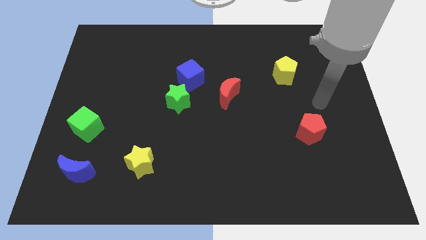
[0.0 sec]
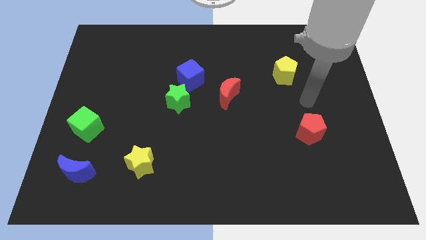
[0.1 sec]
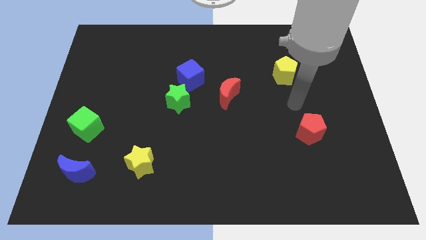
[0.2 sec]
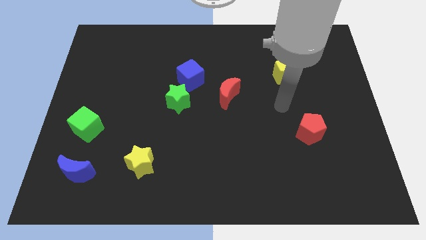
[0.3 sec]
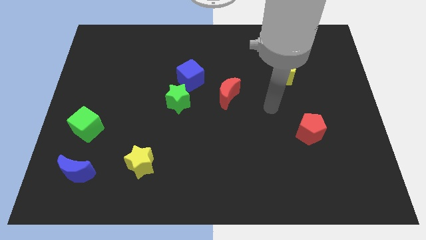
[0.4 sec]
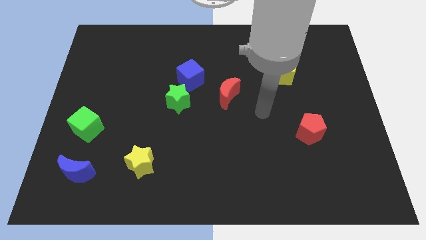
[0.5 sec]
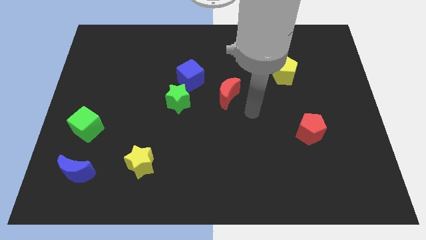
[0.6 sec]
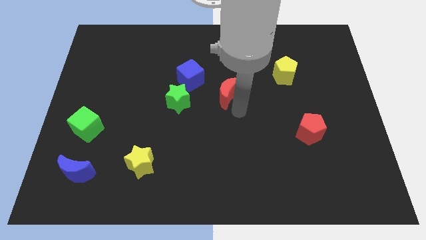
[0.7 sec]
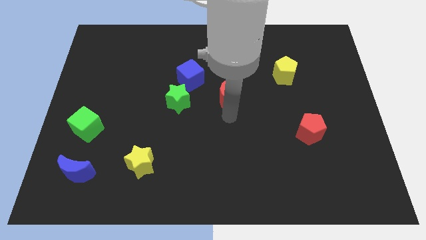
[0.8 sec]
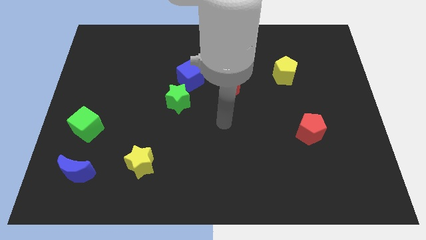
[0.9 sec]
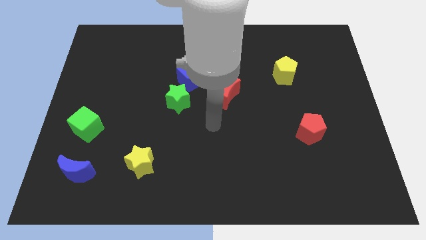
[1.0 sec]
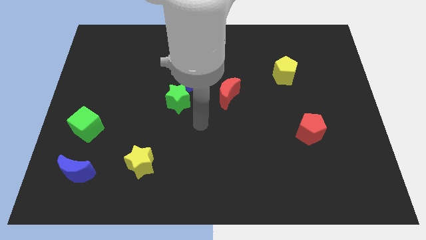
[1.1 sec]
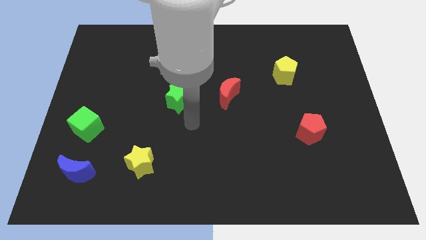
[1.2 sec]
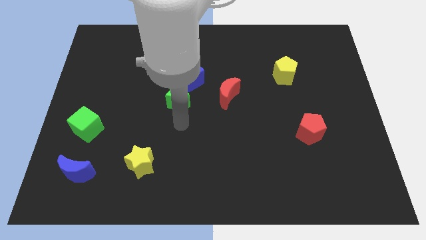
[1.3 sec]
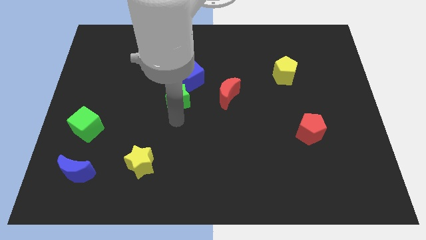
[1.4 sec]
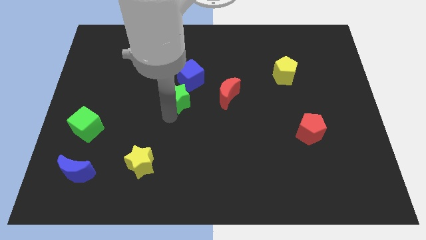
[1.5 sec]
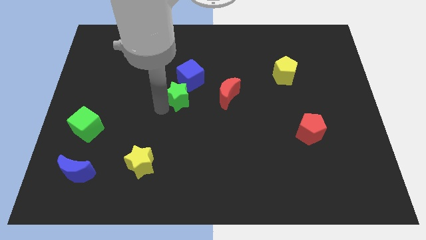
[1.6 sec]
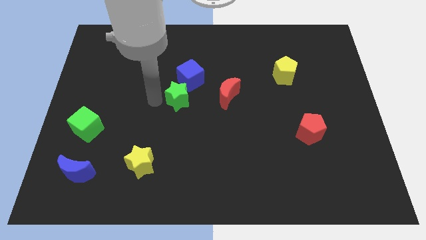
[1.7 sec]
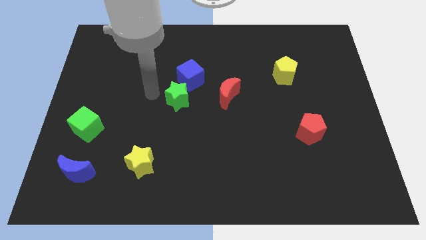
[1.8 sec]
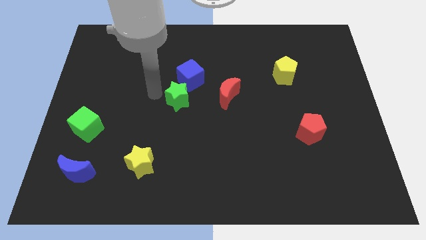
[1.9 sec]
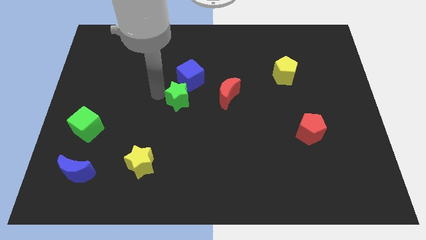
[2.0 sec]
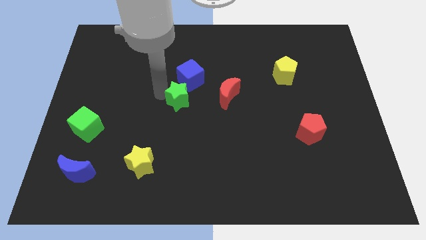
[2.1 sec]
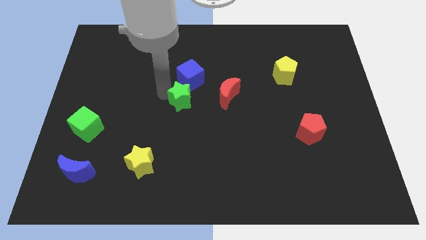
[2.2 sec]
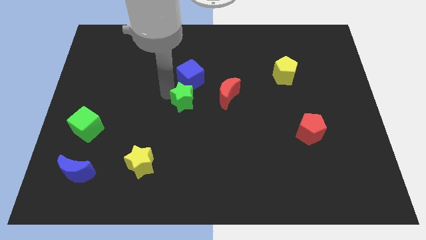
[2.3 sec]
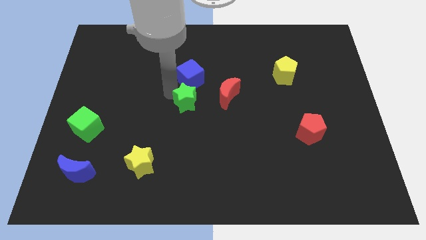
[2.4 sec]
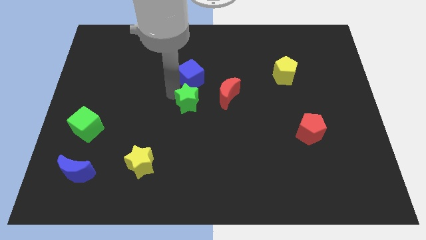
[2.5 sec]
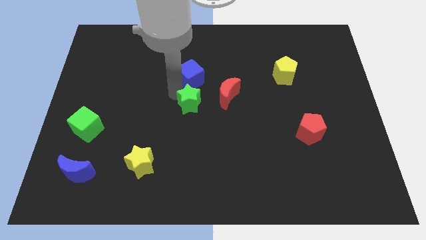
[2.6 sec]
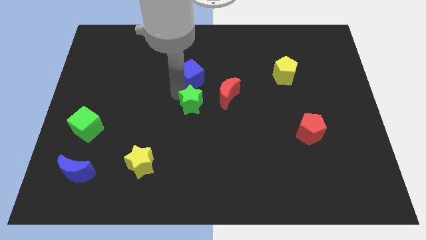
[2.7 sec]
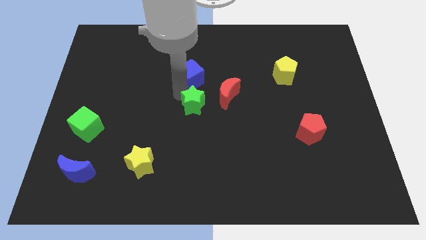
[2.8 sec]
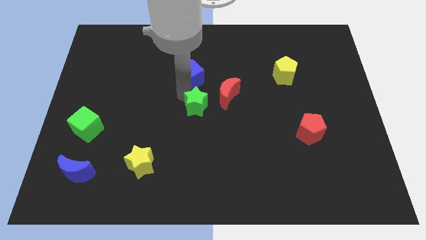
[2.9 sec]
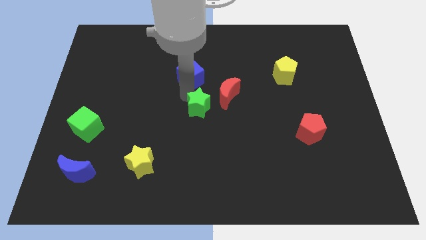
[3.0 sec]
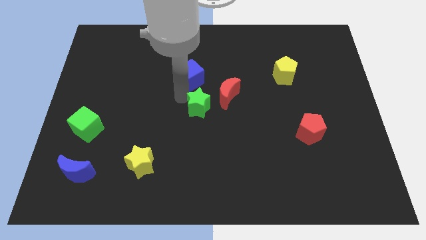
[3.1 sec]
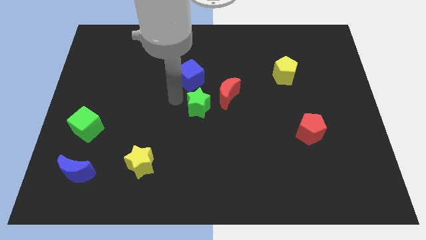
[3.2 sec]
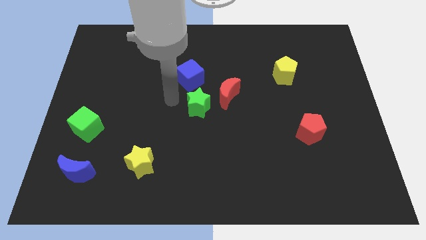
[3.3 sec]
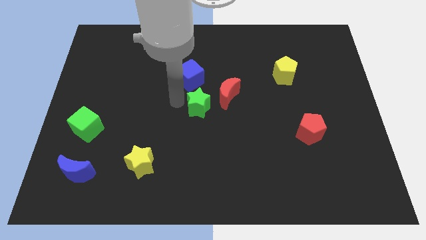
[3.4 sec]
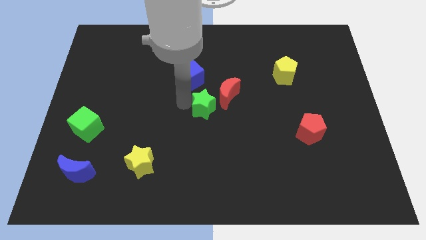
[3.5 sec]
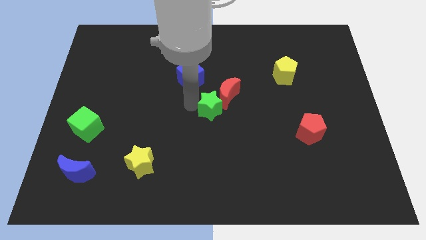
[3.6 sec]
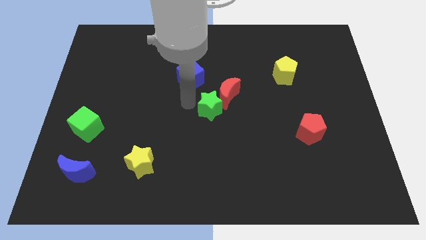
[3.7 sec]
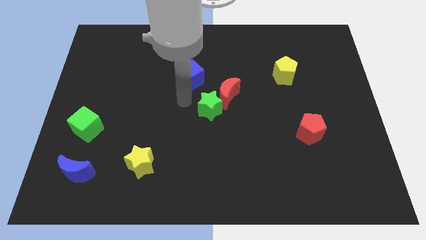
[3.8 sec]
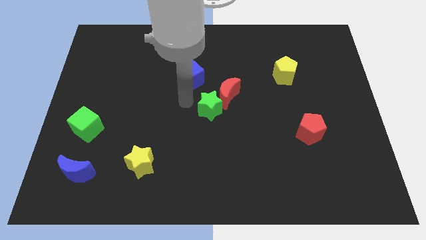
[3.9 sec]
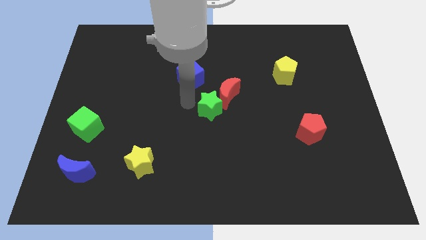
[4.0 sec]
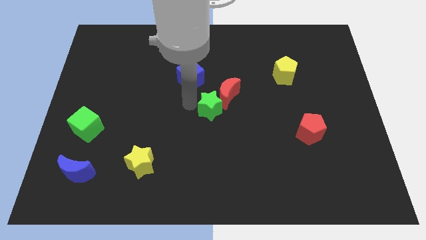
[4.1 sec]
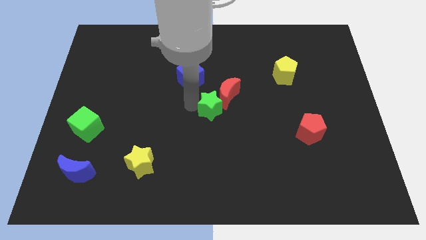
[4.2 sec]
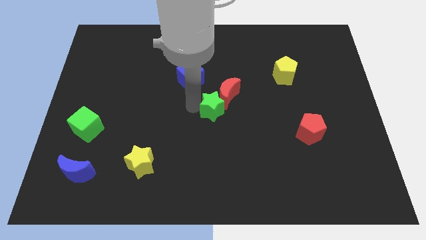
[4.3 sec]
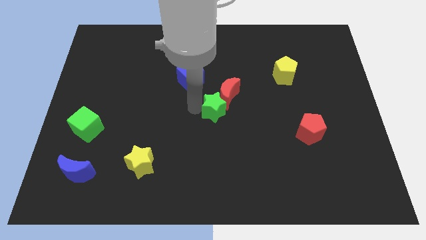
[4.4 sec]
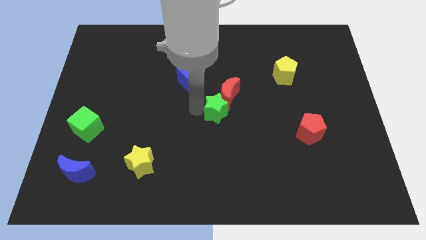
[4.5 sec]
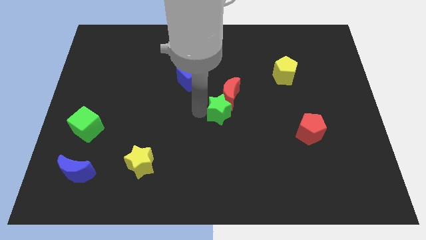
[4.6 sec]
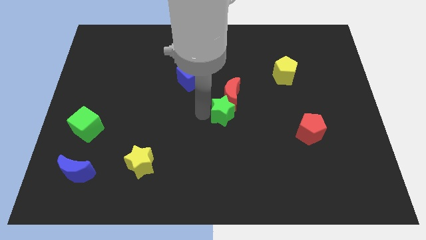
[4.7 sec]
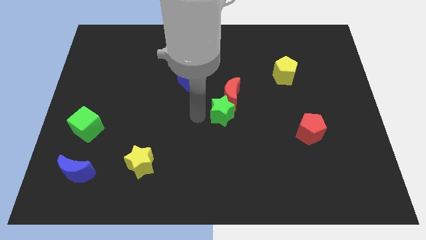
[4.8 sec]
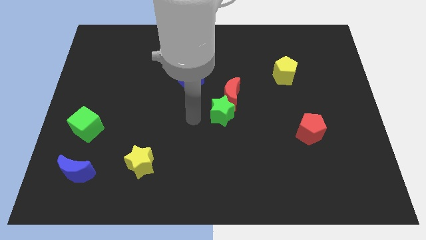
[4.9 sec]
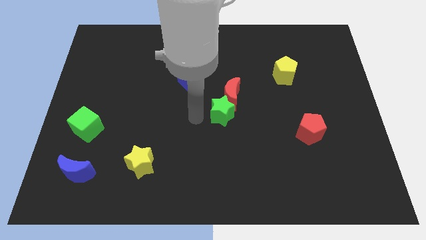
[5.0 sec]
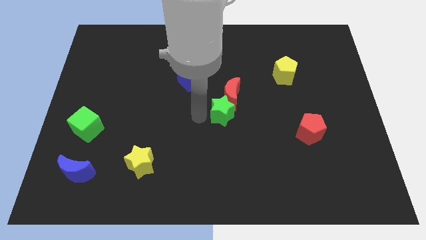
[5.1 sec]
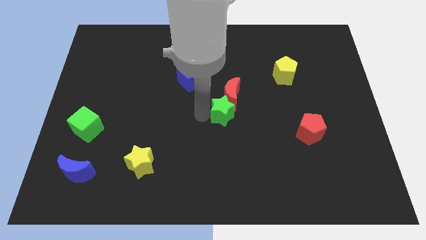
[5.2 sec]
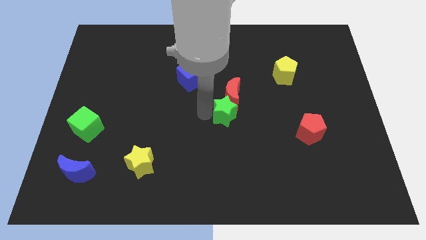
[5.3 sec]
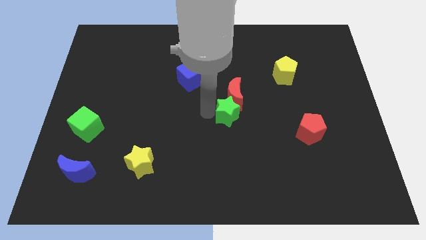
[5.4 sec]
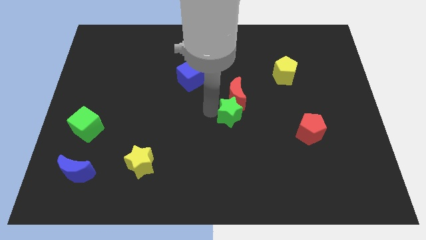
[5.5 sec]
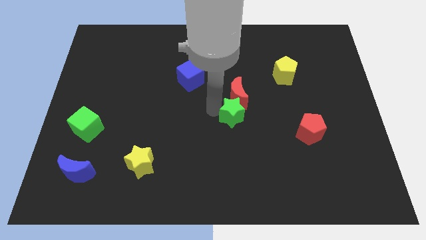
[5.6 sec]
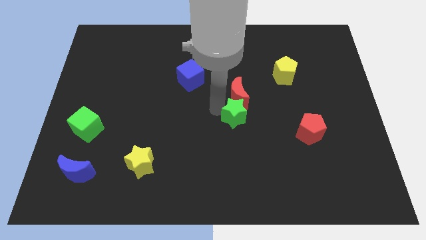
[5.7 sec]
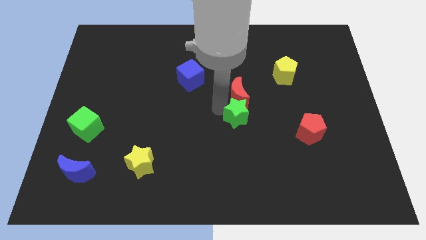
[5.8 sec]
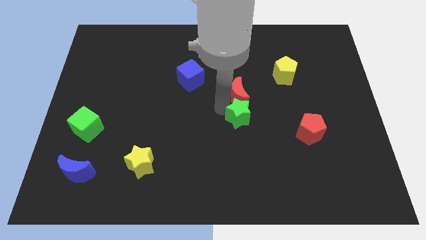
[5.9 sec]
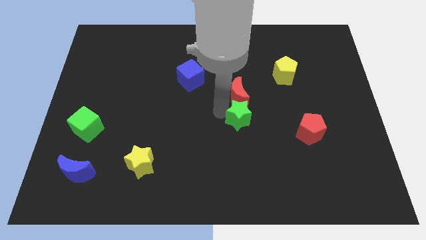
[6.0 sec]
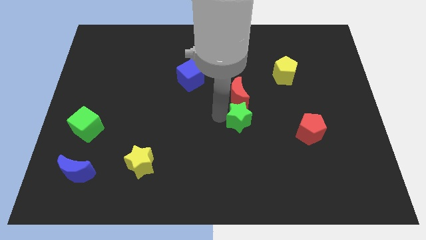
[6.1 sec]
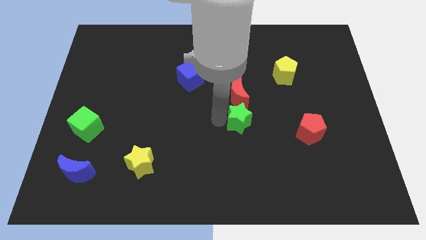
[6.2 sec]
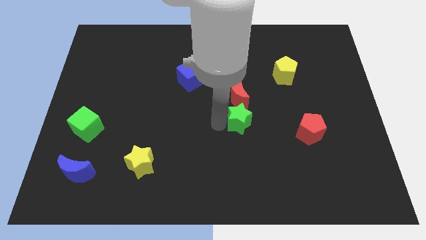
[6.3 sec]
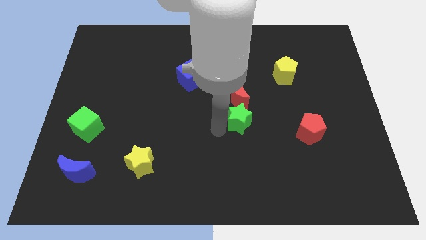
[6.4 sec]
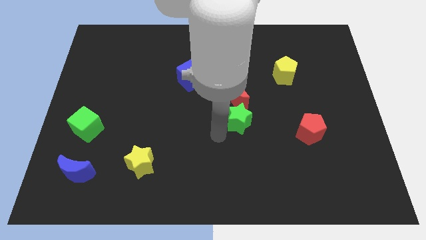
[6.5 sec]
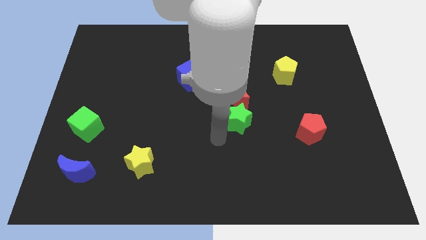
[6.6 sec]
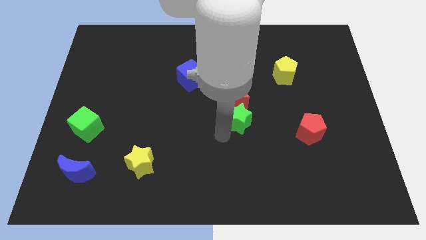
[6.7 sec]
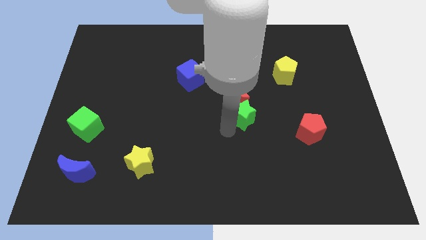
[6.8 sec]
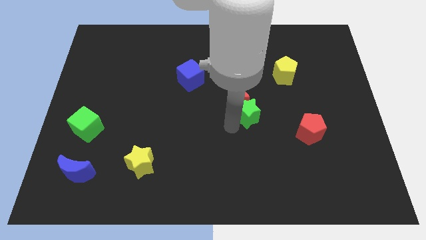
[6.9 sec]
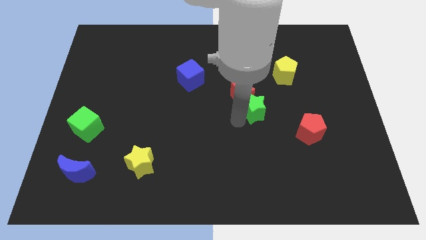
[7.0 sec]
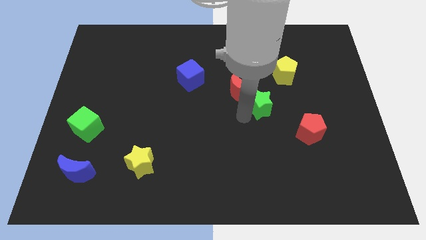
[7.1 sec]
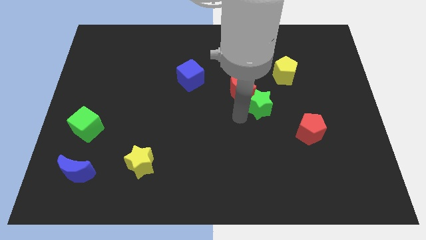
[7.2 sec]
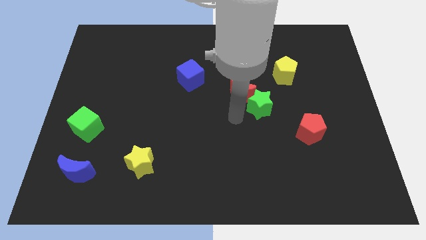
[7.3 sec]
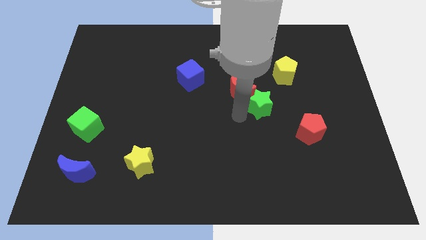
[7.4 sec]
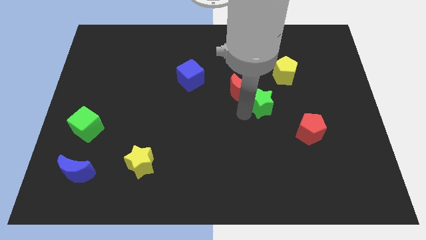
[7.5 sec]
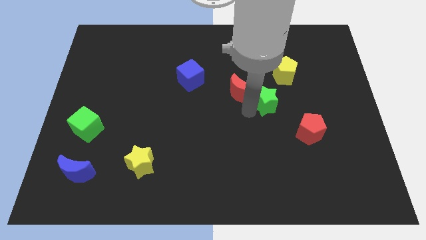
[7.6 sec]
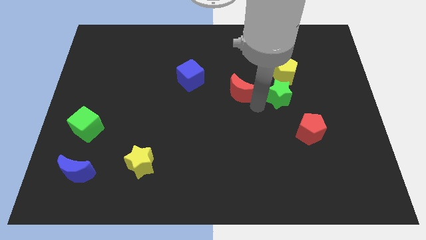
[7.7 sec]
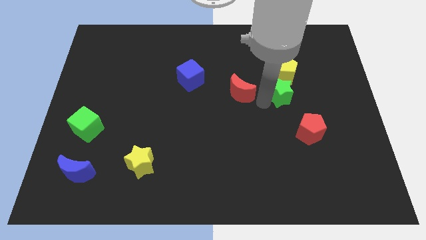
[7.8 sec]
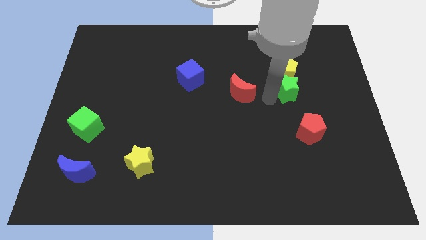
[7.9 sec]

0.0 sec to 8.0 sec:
push the green star diagonally down and to the right of the yellow pentagon

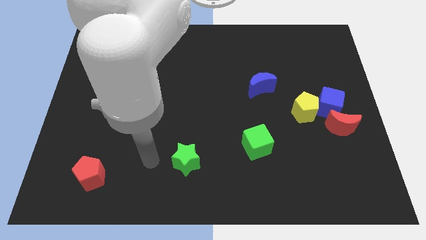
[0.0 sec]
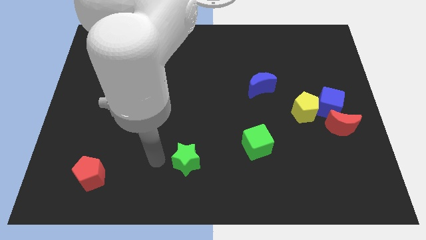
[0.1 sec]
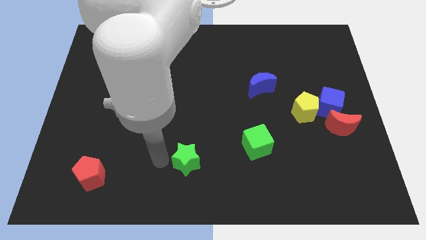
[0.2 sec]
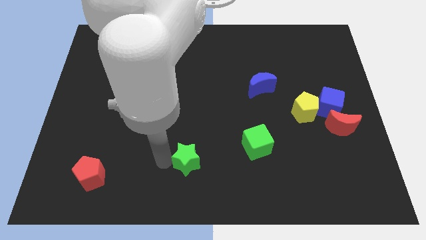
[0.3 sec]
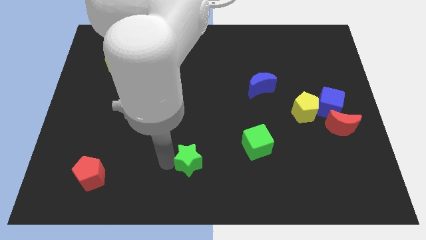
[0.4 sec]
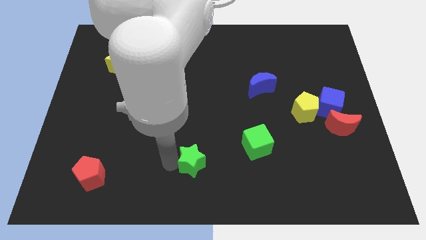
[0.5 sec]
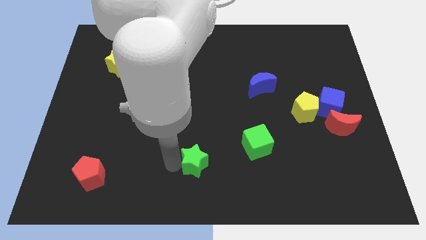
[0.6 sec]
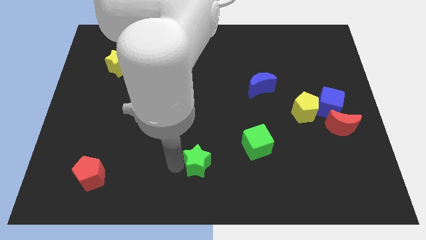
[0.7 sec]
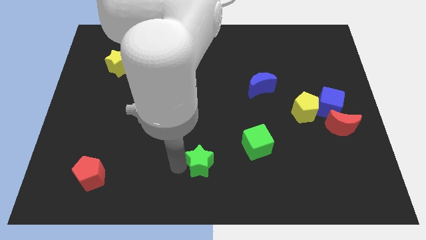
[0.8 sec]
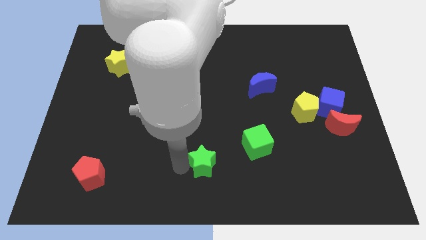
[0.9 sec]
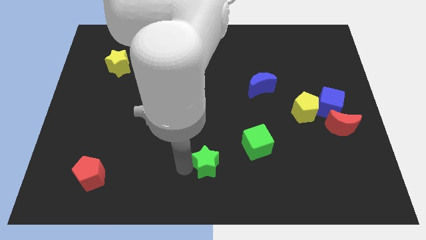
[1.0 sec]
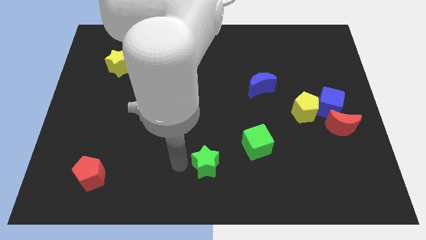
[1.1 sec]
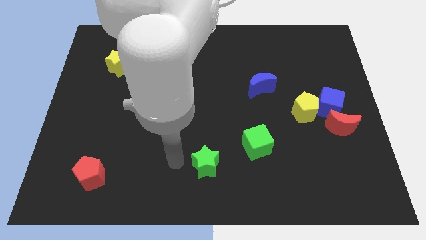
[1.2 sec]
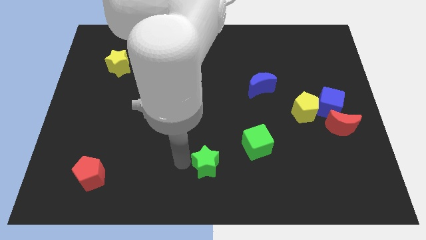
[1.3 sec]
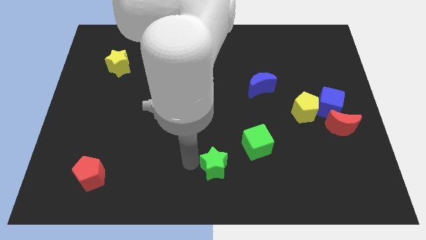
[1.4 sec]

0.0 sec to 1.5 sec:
slide the green star to the bottom left of the green cube
